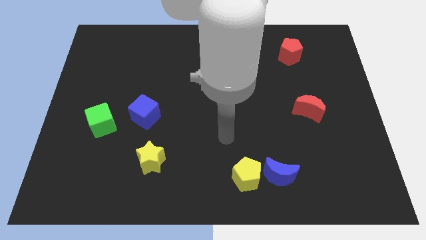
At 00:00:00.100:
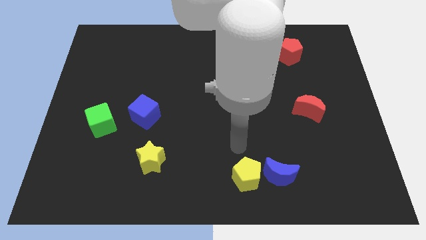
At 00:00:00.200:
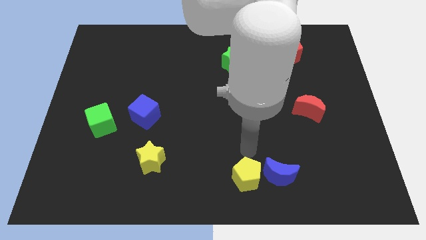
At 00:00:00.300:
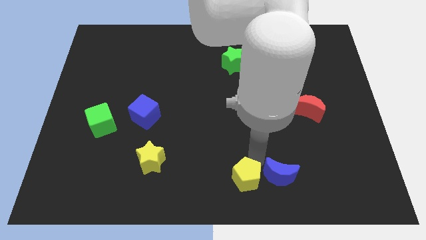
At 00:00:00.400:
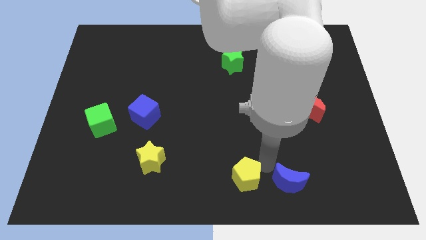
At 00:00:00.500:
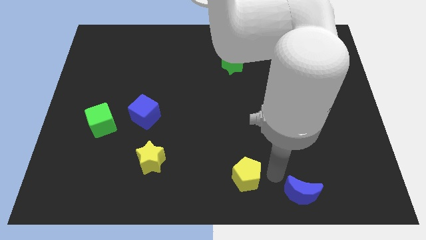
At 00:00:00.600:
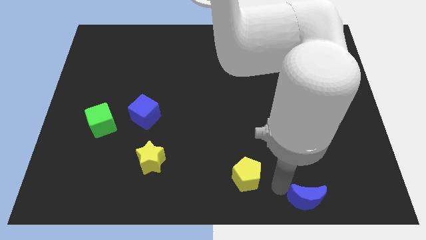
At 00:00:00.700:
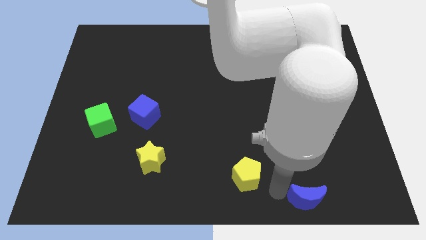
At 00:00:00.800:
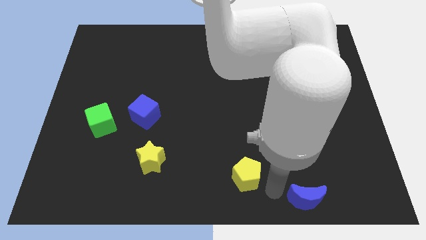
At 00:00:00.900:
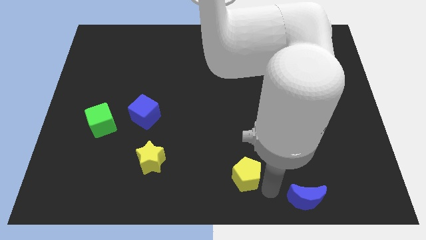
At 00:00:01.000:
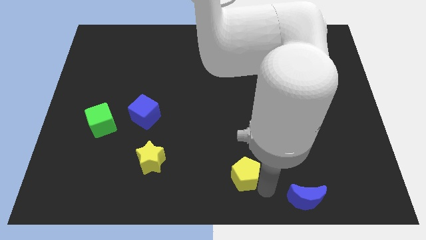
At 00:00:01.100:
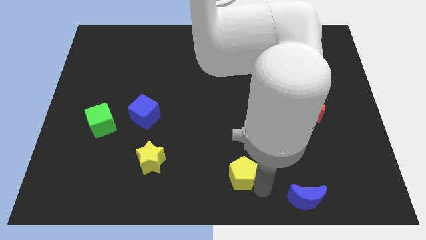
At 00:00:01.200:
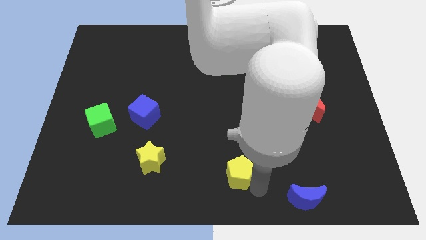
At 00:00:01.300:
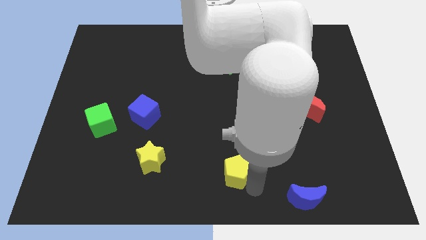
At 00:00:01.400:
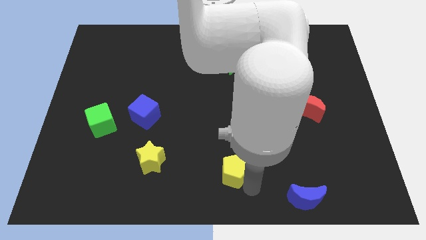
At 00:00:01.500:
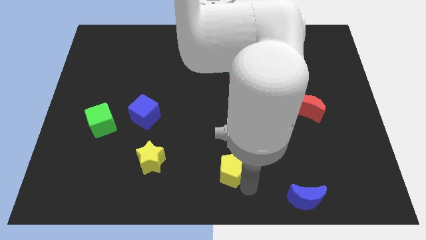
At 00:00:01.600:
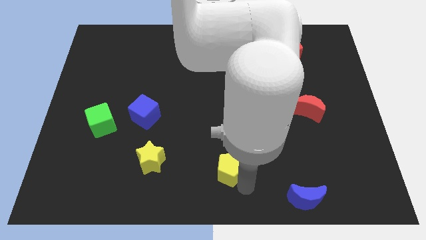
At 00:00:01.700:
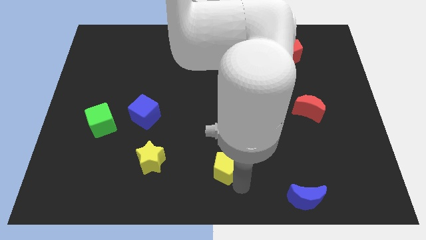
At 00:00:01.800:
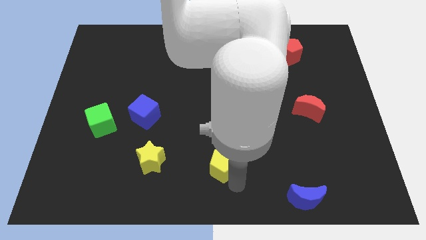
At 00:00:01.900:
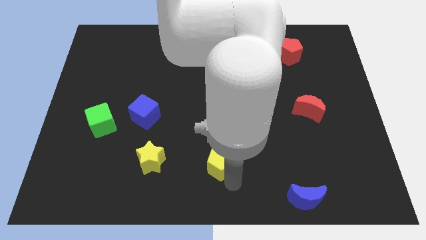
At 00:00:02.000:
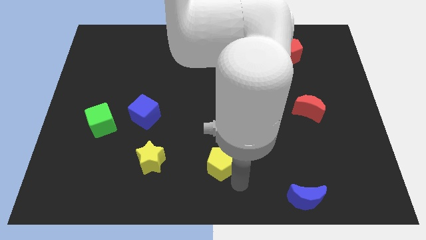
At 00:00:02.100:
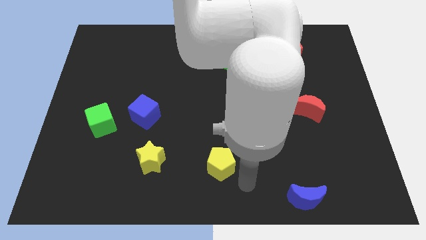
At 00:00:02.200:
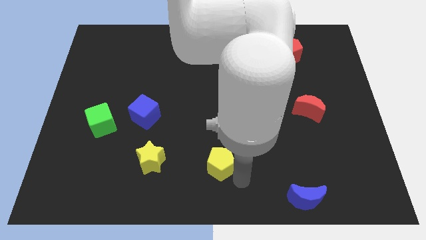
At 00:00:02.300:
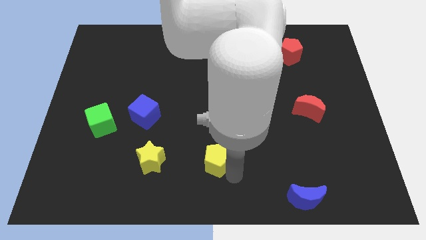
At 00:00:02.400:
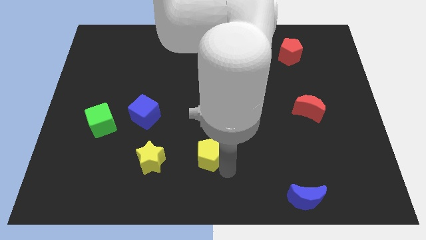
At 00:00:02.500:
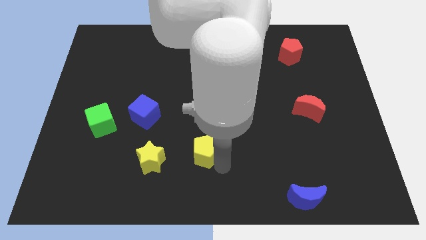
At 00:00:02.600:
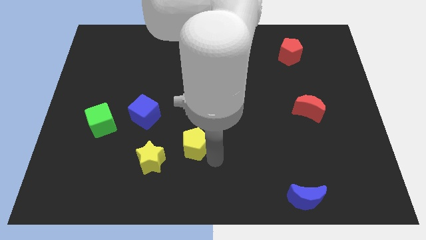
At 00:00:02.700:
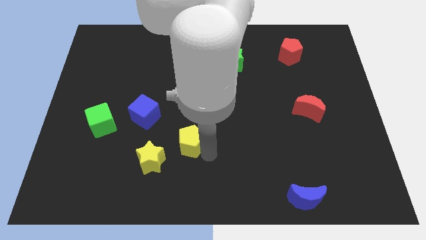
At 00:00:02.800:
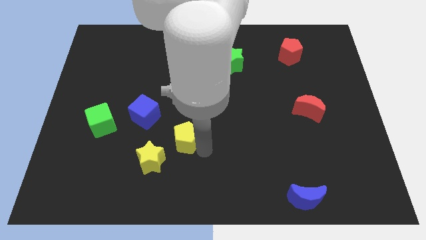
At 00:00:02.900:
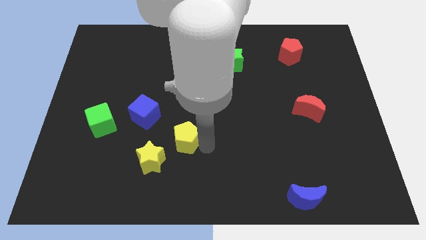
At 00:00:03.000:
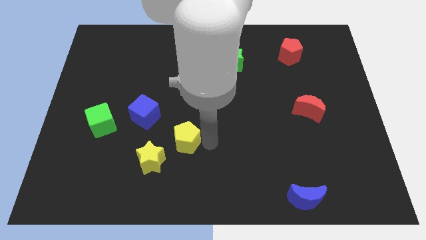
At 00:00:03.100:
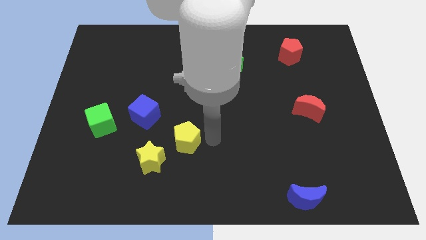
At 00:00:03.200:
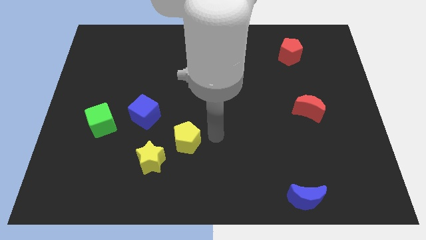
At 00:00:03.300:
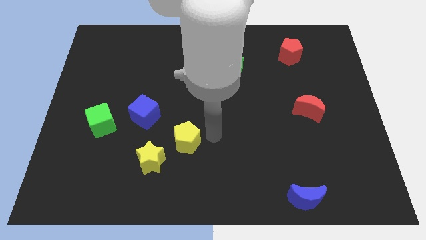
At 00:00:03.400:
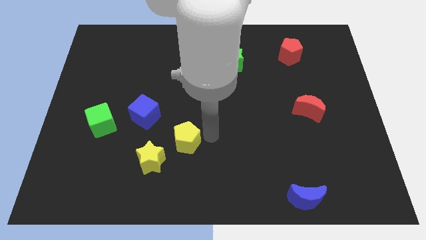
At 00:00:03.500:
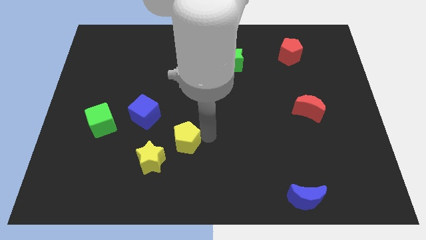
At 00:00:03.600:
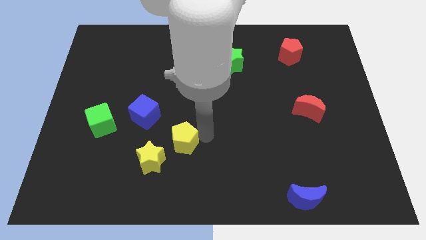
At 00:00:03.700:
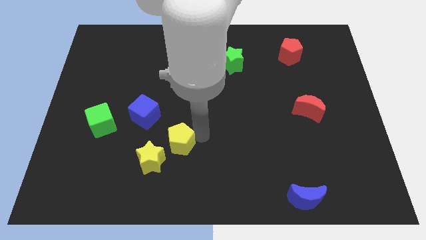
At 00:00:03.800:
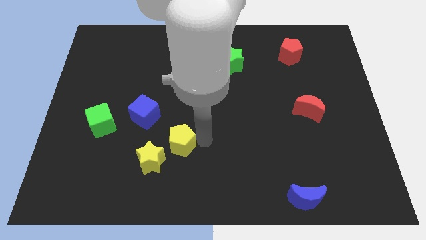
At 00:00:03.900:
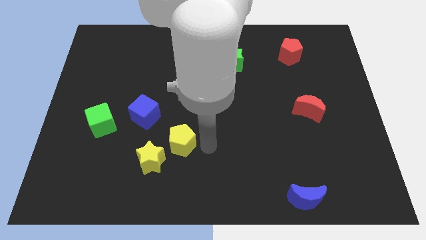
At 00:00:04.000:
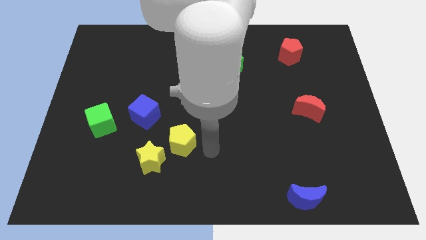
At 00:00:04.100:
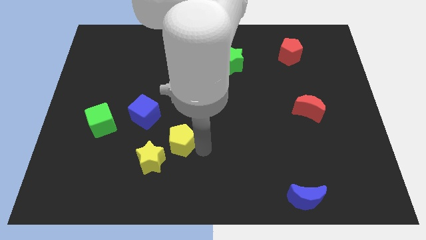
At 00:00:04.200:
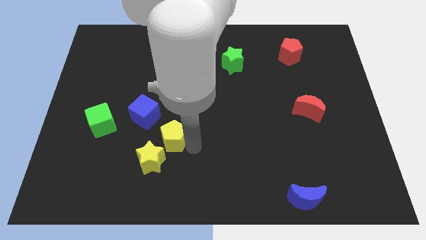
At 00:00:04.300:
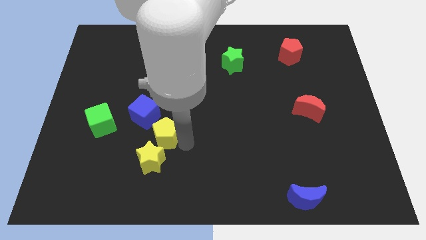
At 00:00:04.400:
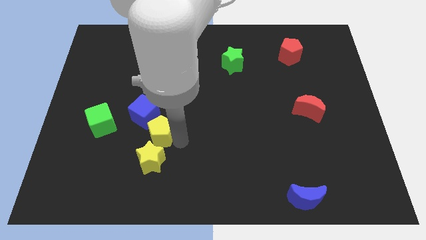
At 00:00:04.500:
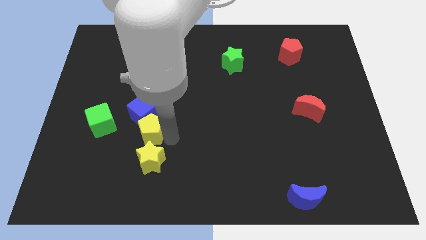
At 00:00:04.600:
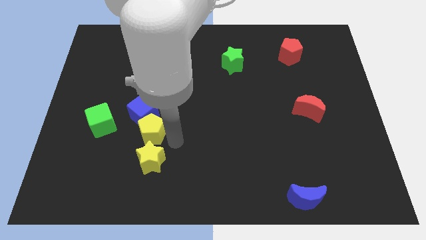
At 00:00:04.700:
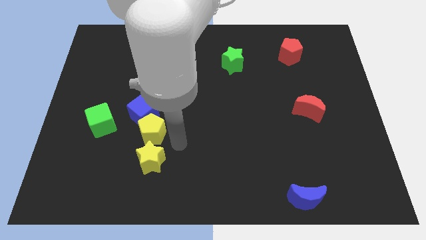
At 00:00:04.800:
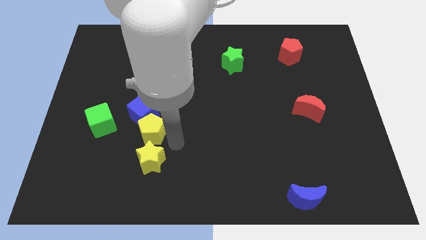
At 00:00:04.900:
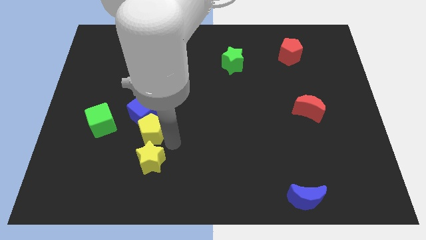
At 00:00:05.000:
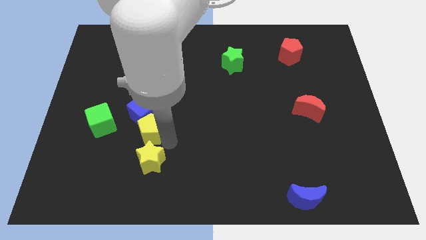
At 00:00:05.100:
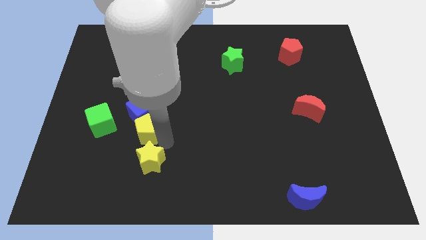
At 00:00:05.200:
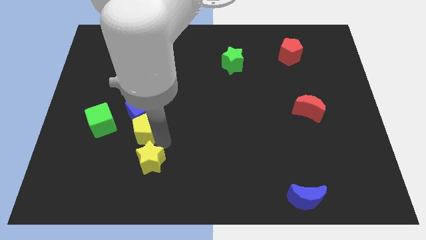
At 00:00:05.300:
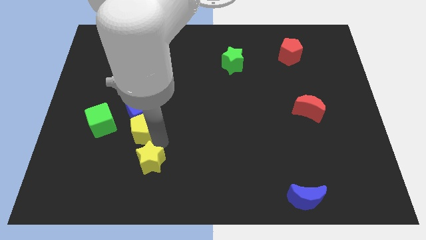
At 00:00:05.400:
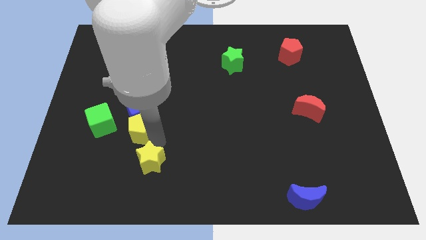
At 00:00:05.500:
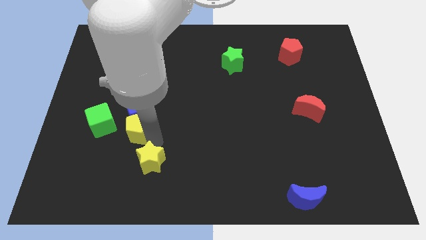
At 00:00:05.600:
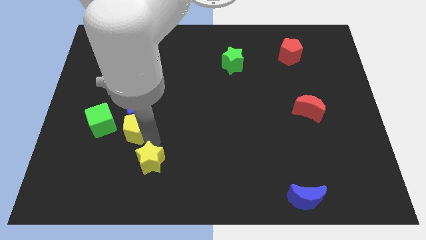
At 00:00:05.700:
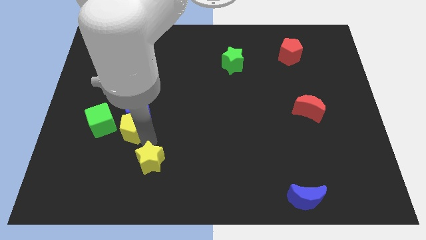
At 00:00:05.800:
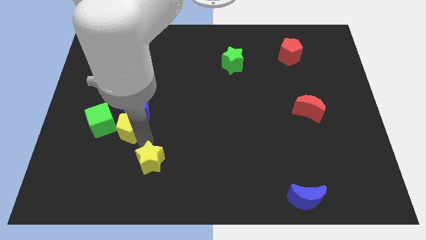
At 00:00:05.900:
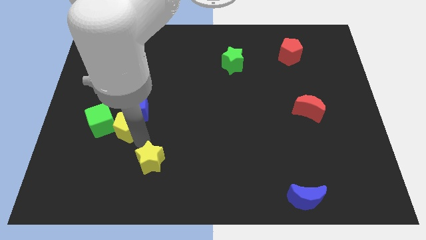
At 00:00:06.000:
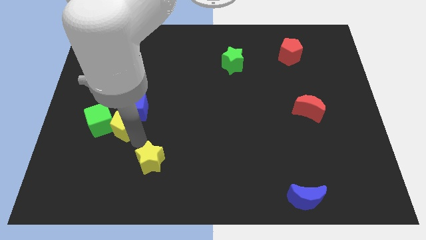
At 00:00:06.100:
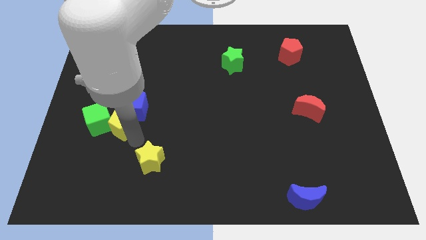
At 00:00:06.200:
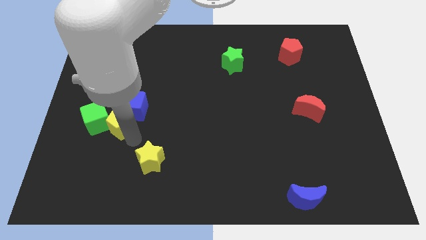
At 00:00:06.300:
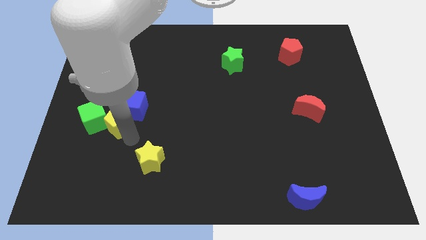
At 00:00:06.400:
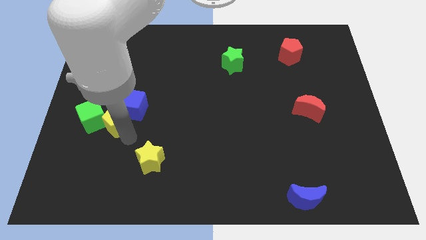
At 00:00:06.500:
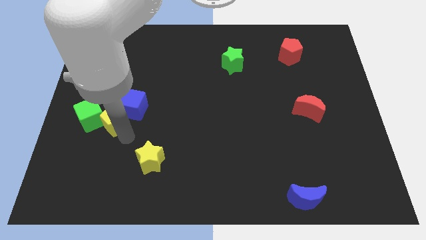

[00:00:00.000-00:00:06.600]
move the yellow pentagon to the left side of the blue cube

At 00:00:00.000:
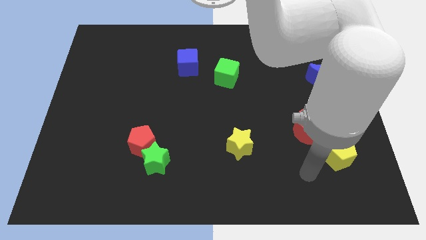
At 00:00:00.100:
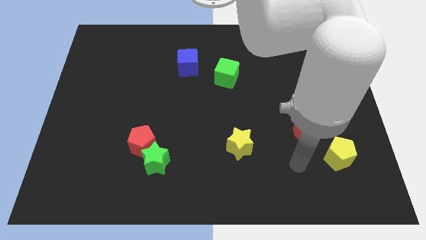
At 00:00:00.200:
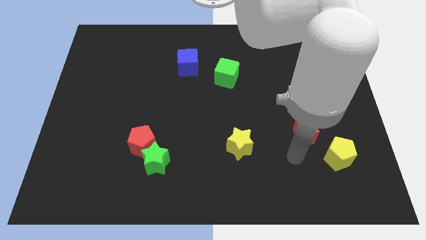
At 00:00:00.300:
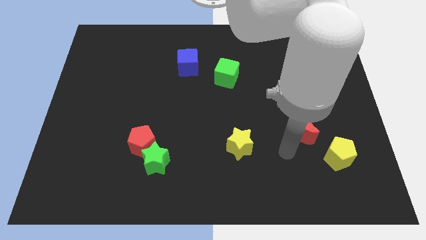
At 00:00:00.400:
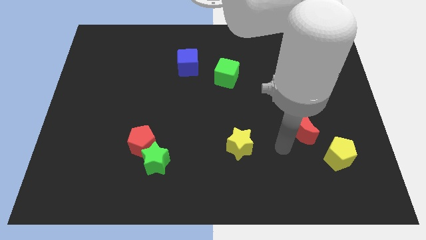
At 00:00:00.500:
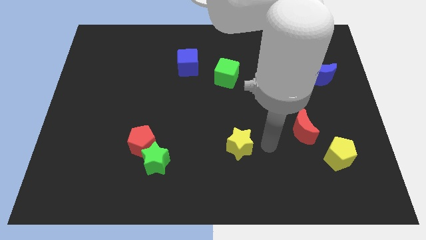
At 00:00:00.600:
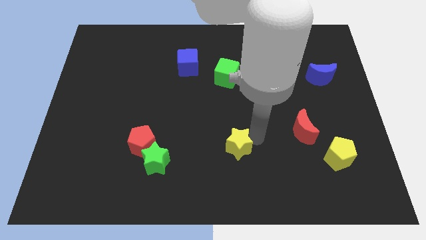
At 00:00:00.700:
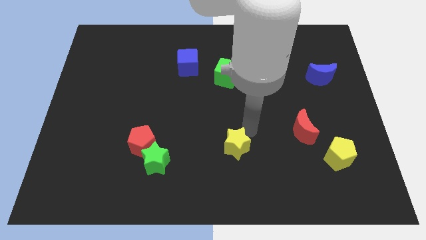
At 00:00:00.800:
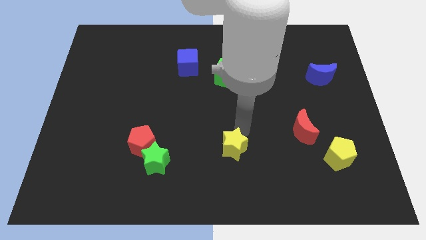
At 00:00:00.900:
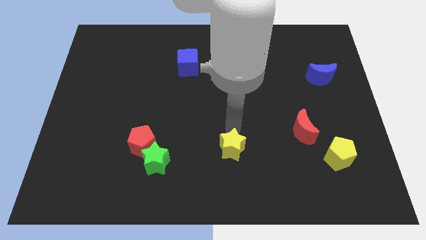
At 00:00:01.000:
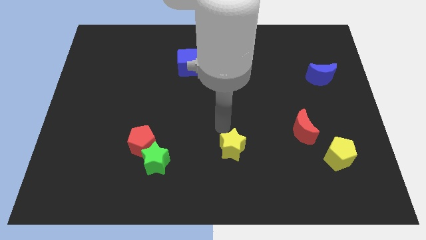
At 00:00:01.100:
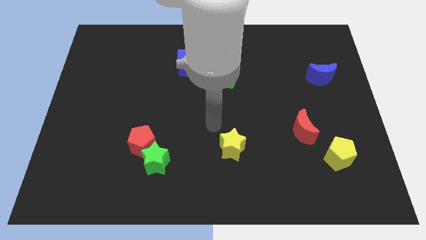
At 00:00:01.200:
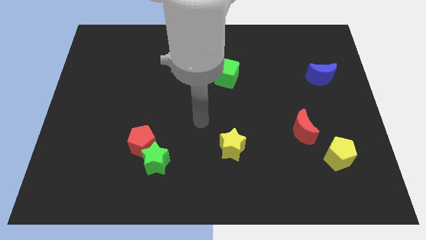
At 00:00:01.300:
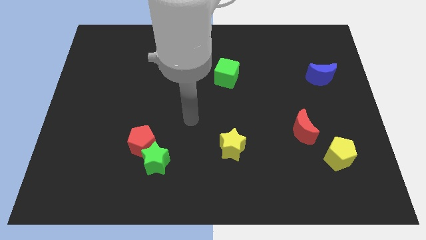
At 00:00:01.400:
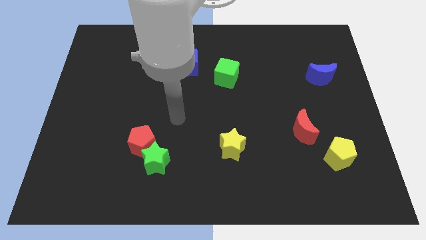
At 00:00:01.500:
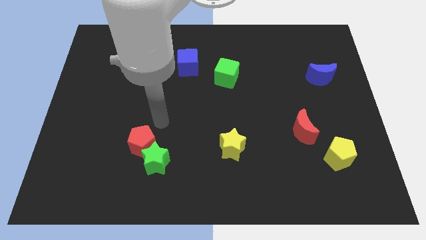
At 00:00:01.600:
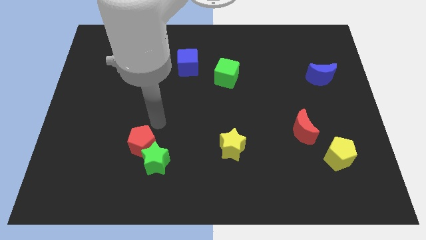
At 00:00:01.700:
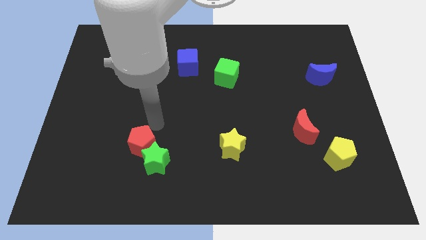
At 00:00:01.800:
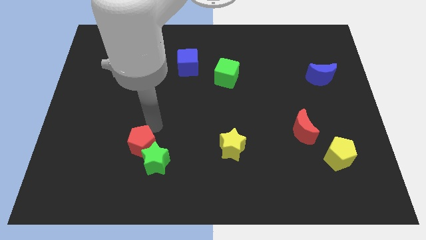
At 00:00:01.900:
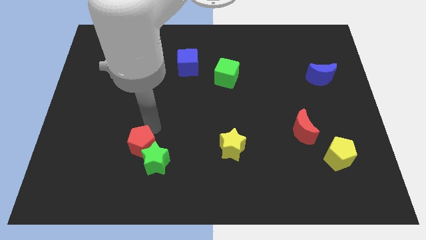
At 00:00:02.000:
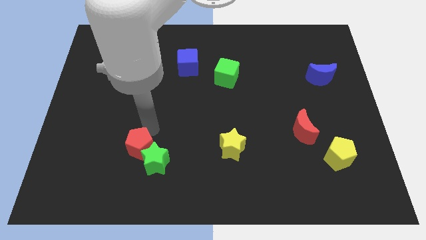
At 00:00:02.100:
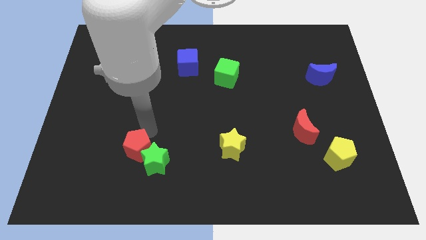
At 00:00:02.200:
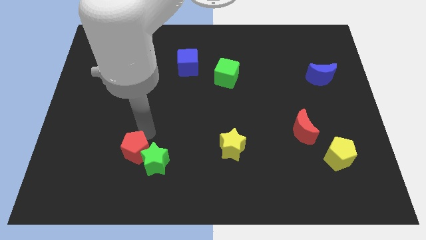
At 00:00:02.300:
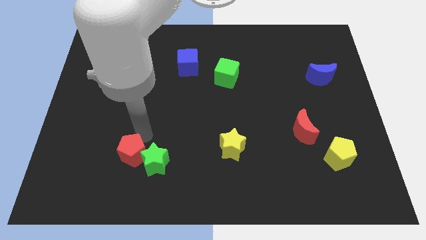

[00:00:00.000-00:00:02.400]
slide the red pentagon to the bottom left of the green star
